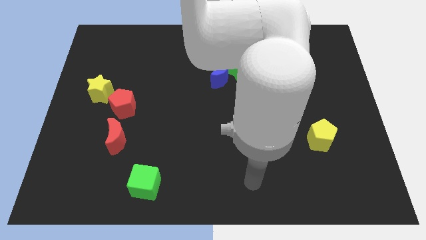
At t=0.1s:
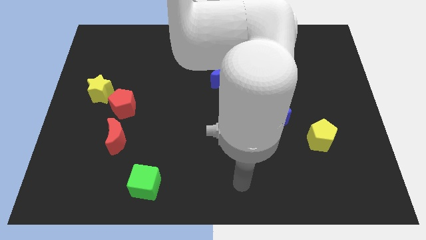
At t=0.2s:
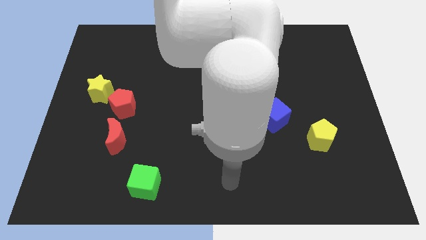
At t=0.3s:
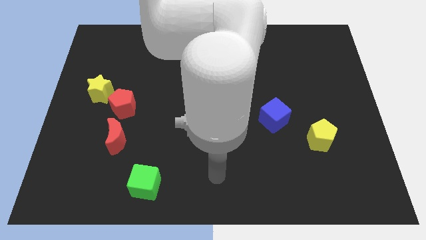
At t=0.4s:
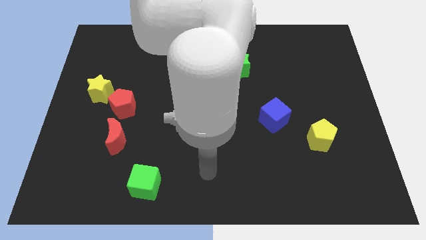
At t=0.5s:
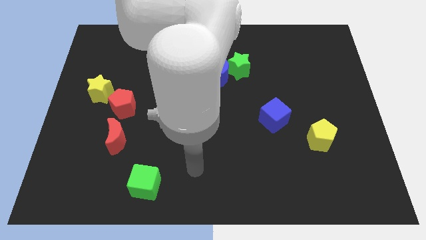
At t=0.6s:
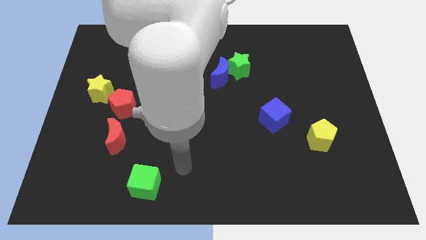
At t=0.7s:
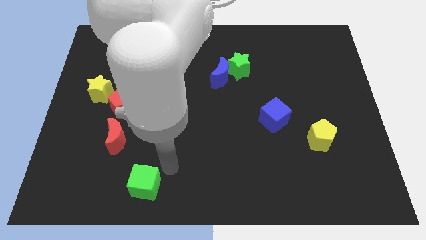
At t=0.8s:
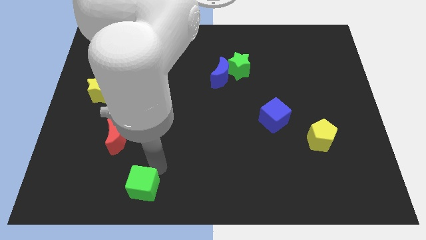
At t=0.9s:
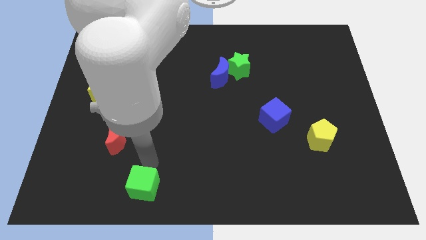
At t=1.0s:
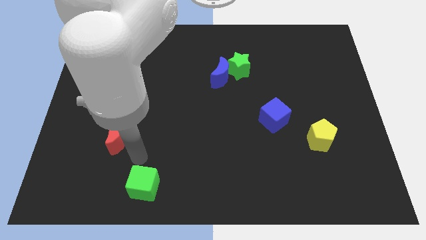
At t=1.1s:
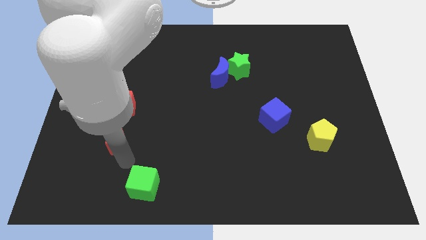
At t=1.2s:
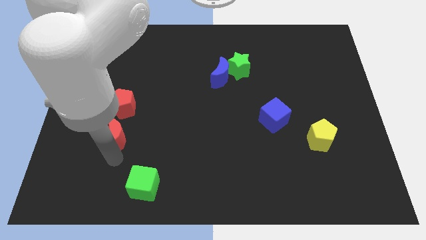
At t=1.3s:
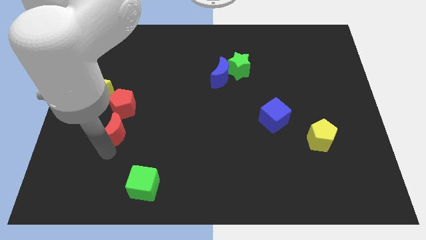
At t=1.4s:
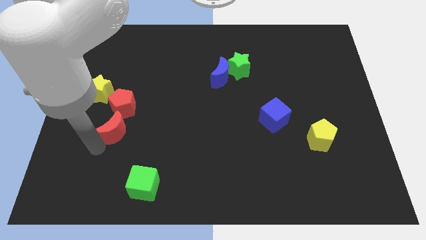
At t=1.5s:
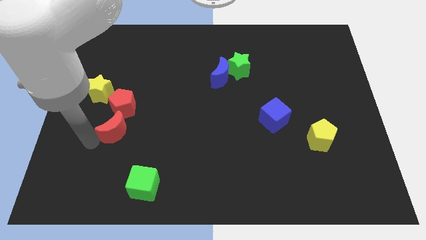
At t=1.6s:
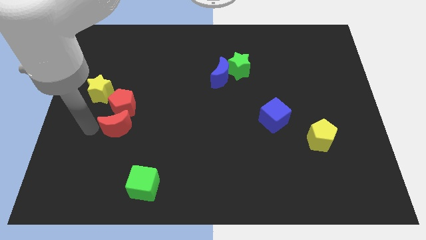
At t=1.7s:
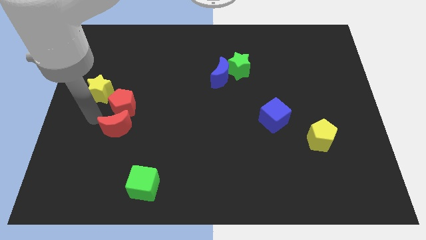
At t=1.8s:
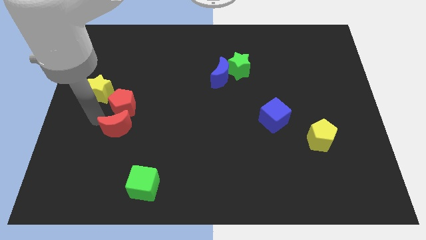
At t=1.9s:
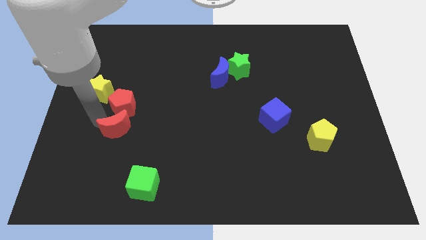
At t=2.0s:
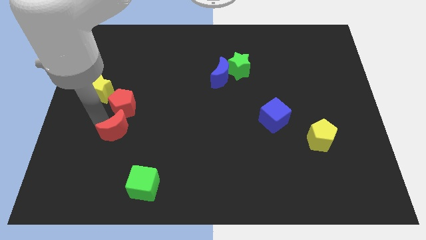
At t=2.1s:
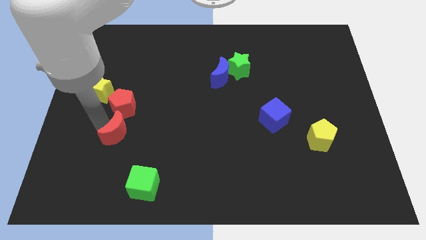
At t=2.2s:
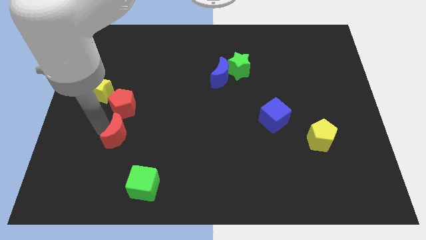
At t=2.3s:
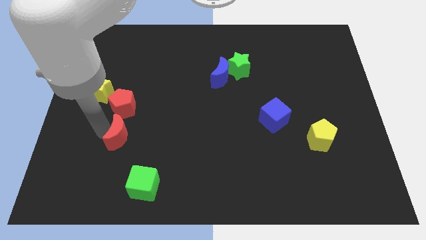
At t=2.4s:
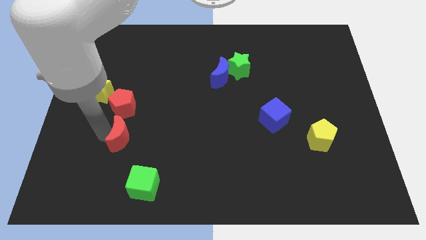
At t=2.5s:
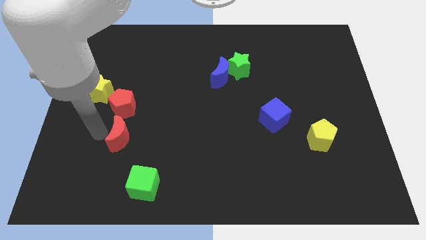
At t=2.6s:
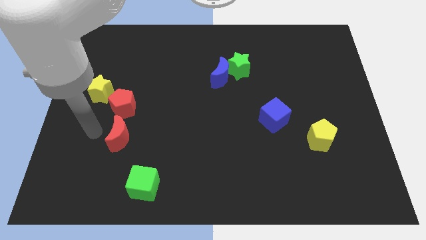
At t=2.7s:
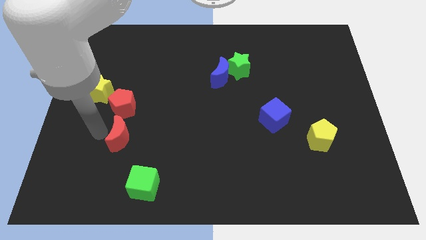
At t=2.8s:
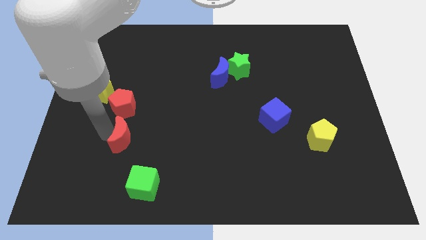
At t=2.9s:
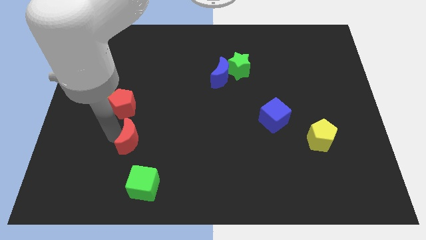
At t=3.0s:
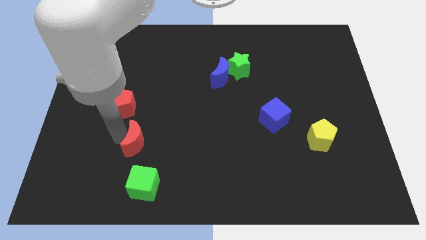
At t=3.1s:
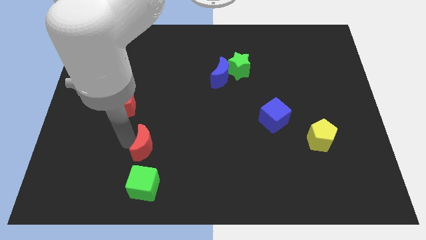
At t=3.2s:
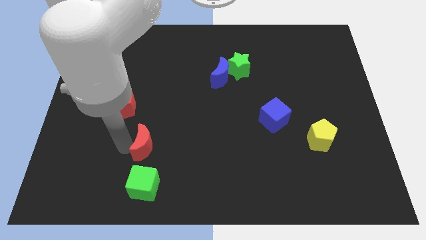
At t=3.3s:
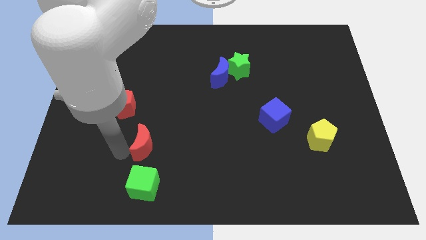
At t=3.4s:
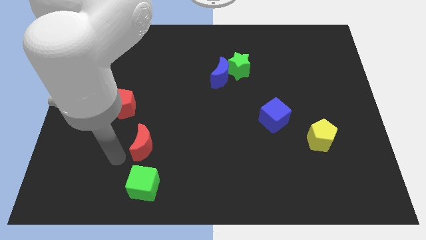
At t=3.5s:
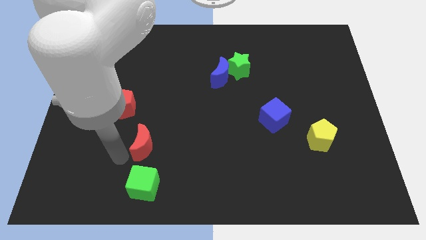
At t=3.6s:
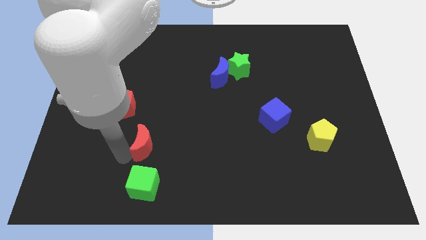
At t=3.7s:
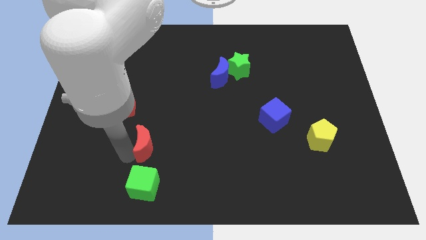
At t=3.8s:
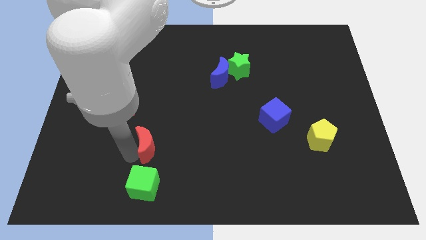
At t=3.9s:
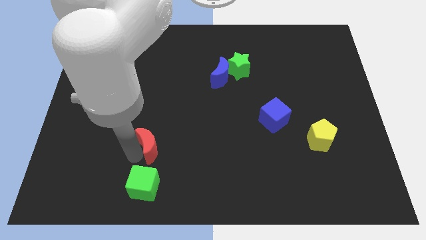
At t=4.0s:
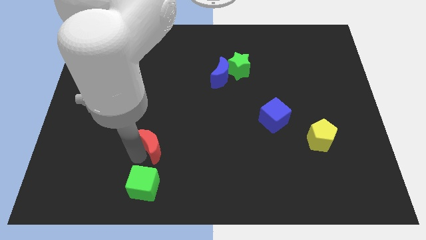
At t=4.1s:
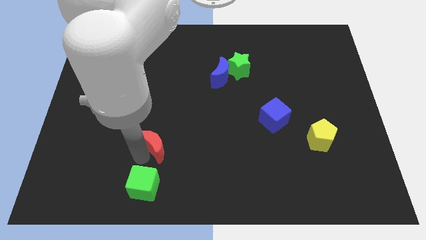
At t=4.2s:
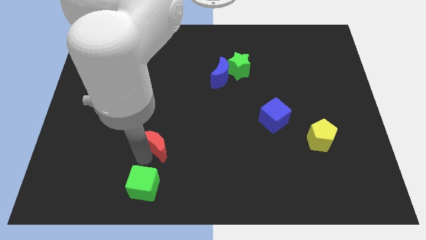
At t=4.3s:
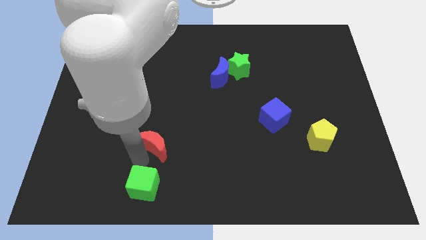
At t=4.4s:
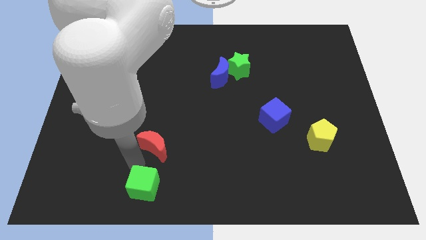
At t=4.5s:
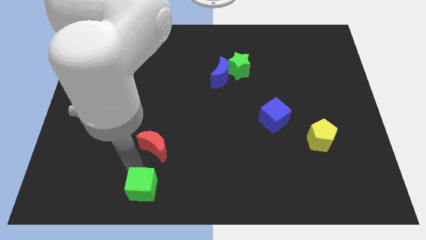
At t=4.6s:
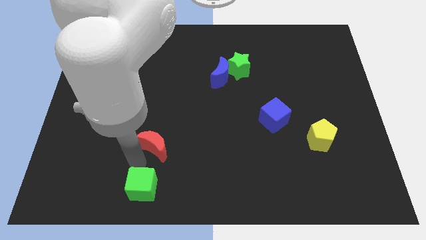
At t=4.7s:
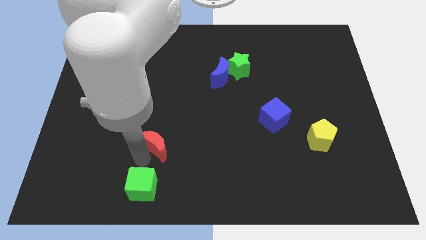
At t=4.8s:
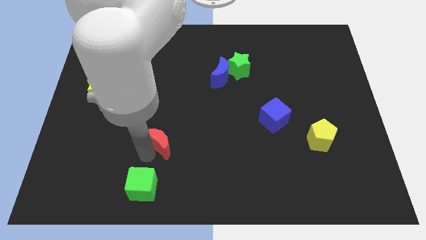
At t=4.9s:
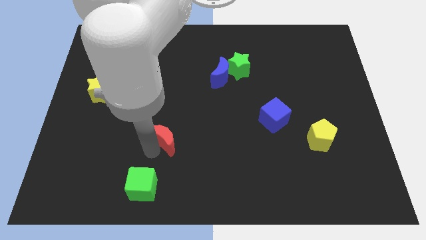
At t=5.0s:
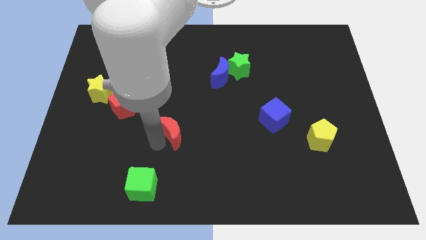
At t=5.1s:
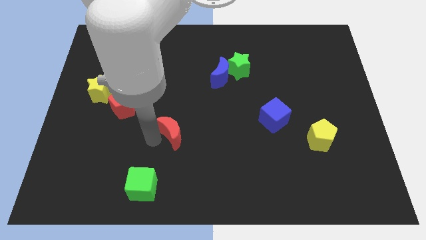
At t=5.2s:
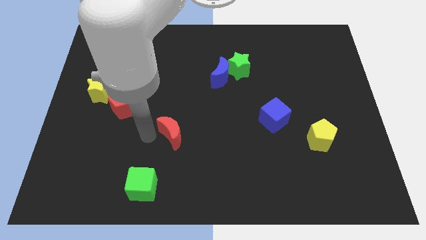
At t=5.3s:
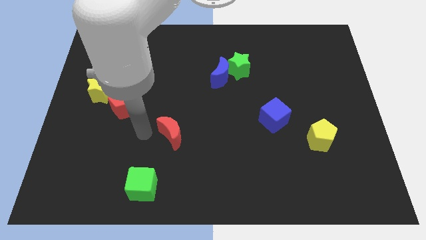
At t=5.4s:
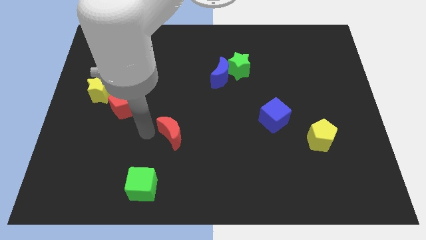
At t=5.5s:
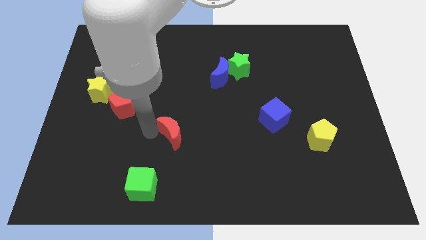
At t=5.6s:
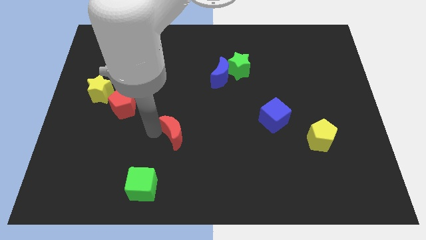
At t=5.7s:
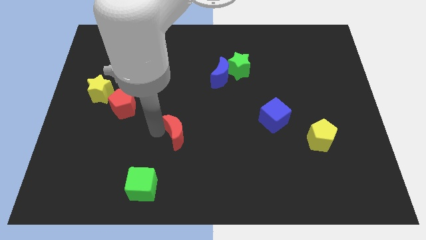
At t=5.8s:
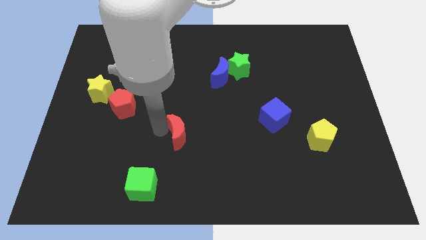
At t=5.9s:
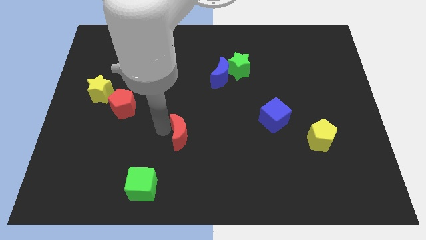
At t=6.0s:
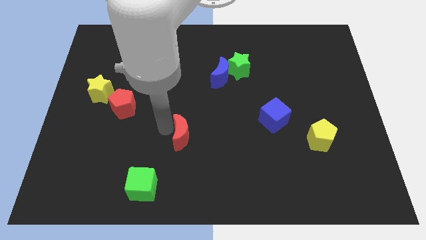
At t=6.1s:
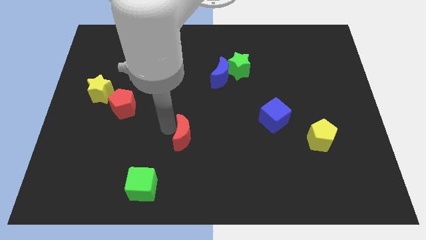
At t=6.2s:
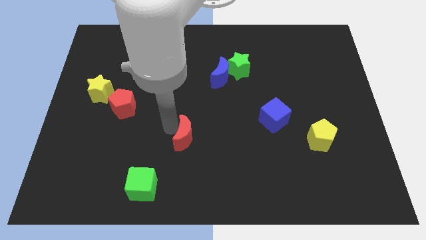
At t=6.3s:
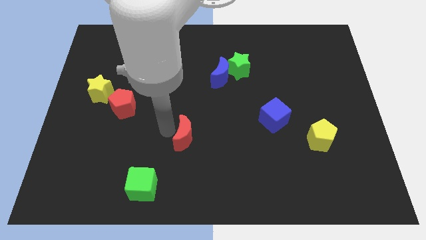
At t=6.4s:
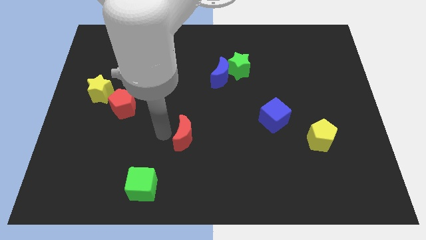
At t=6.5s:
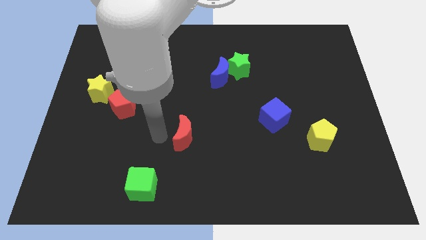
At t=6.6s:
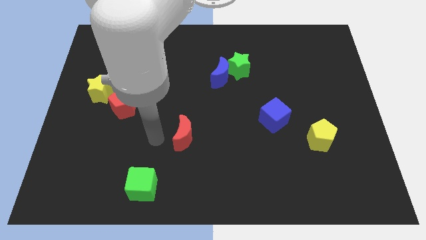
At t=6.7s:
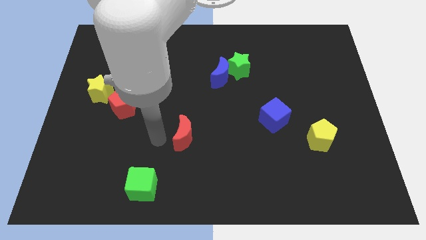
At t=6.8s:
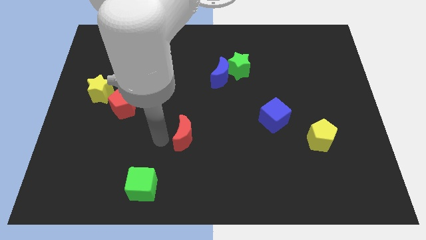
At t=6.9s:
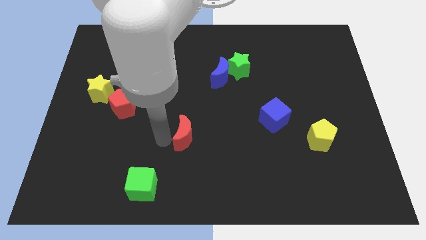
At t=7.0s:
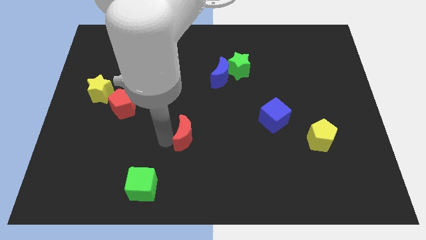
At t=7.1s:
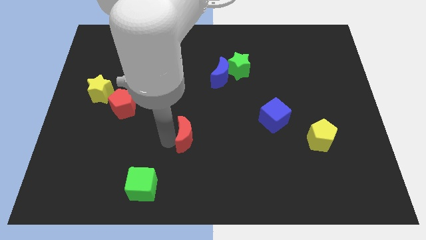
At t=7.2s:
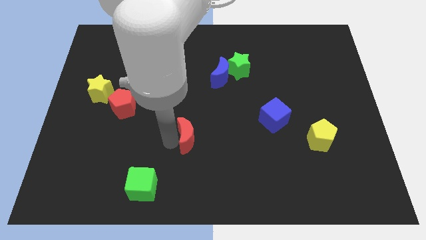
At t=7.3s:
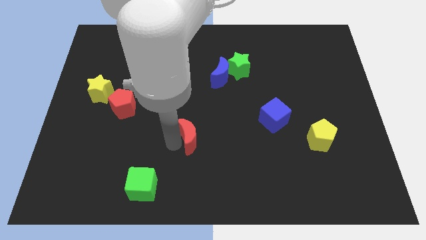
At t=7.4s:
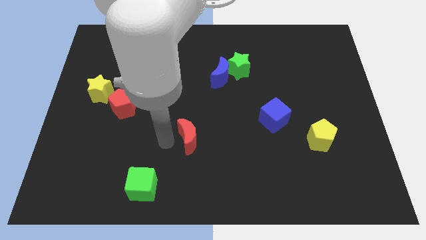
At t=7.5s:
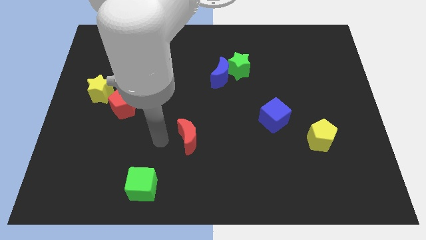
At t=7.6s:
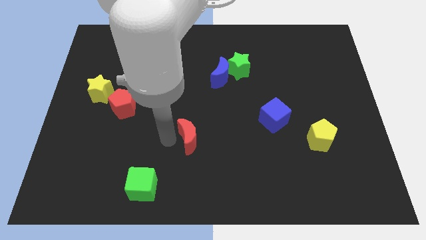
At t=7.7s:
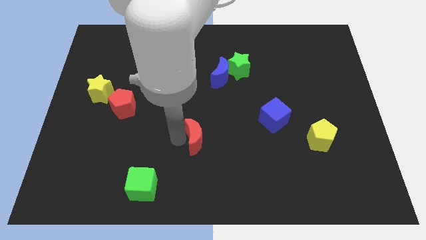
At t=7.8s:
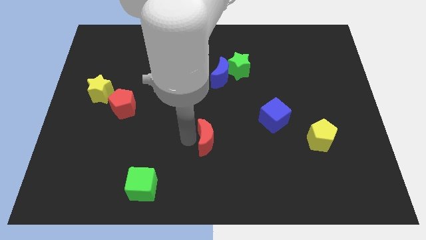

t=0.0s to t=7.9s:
slide the red moon right
